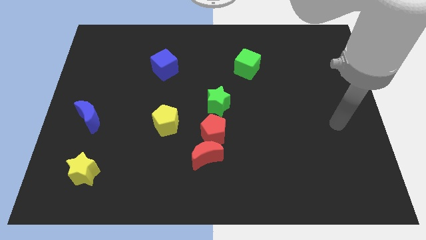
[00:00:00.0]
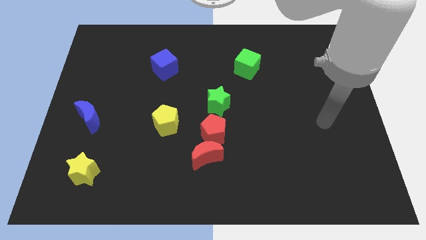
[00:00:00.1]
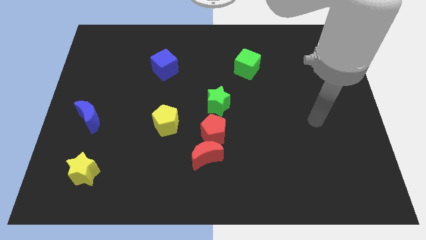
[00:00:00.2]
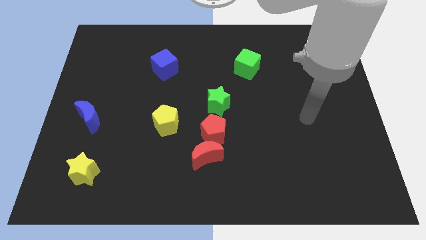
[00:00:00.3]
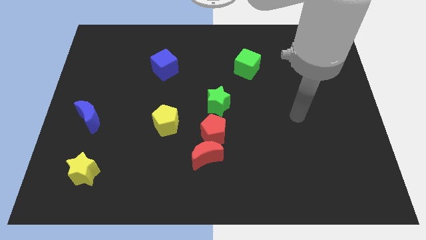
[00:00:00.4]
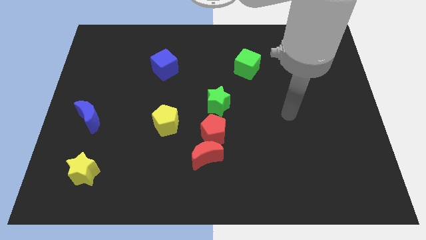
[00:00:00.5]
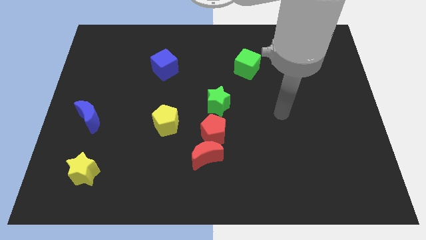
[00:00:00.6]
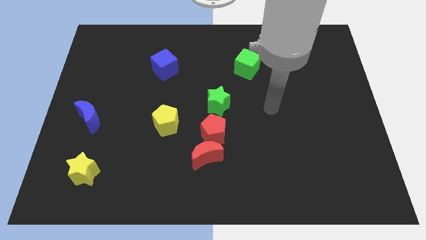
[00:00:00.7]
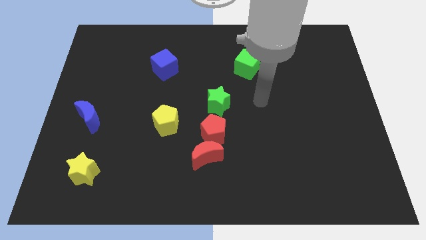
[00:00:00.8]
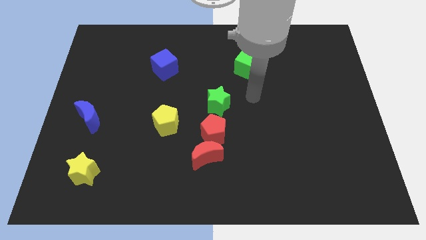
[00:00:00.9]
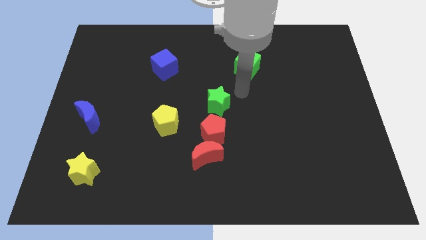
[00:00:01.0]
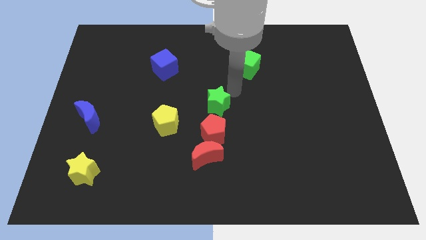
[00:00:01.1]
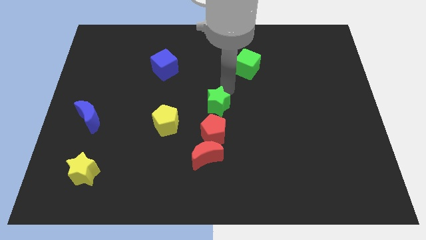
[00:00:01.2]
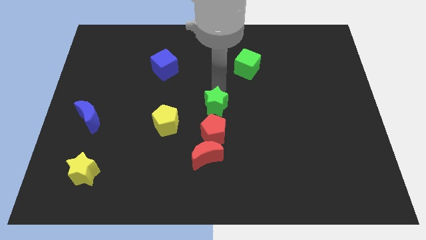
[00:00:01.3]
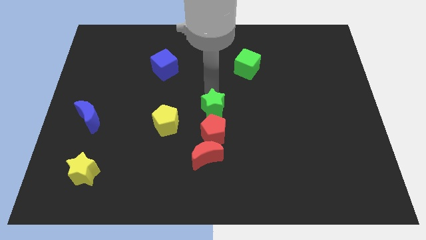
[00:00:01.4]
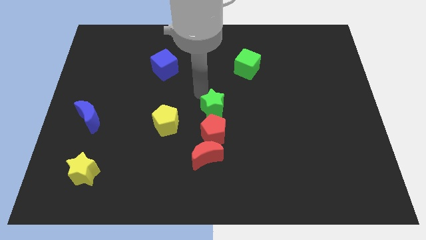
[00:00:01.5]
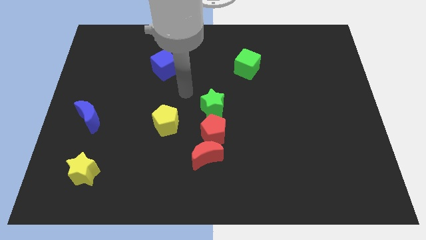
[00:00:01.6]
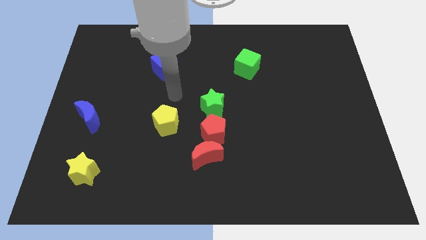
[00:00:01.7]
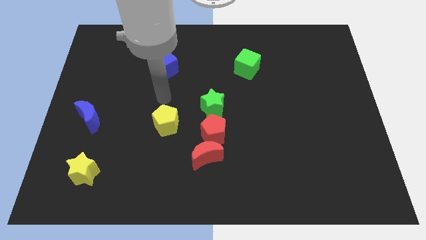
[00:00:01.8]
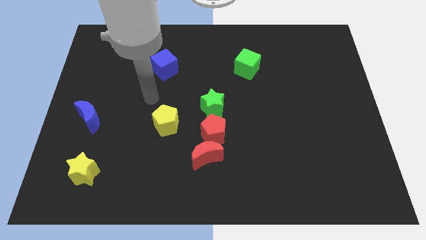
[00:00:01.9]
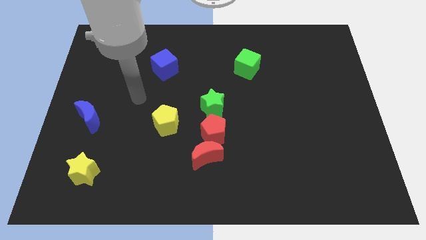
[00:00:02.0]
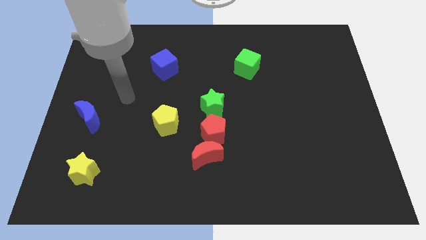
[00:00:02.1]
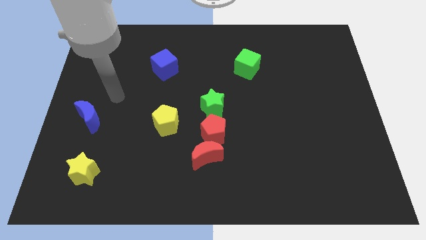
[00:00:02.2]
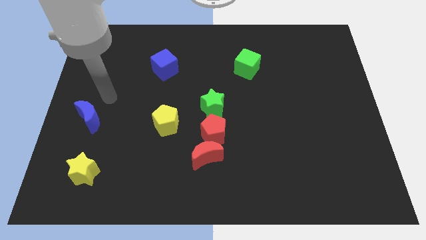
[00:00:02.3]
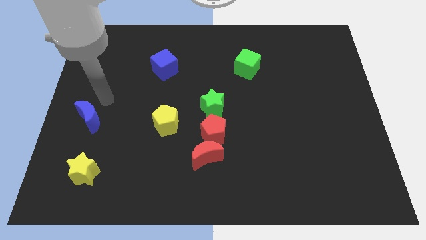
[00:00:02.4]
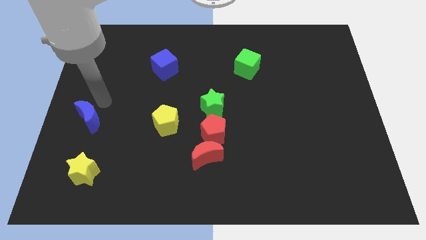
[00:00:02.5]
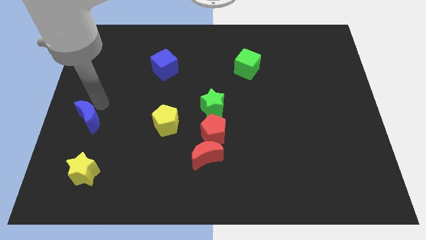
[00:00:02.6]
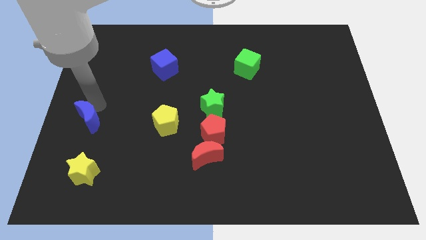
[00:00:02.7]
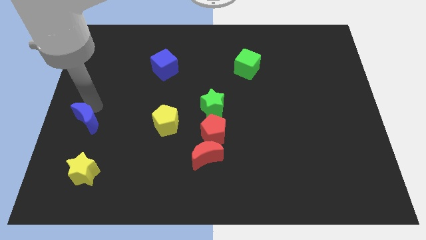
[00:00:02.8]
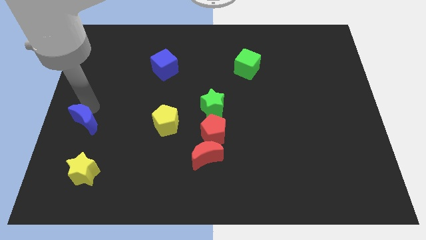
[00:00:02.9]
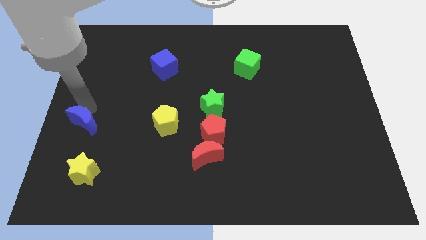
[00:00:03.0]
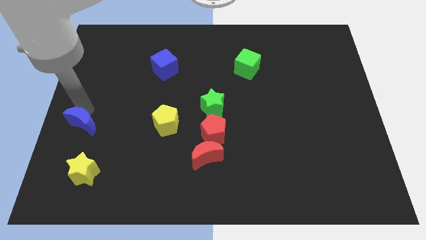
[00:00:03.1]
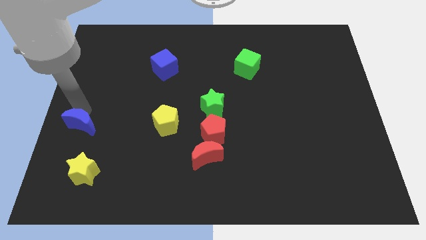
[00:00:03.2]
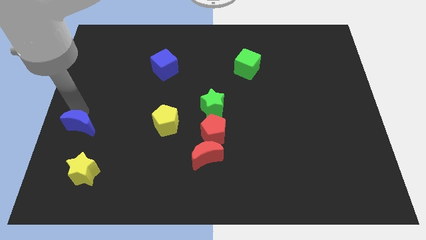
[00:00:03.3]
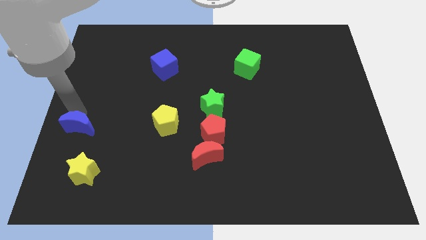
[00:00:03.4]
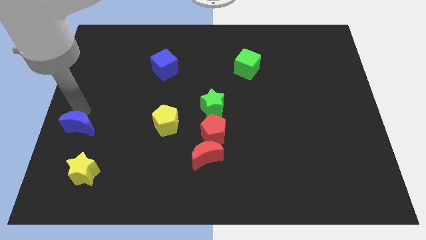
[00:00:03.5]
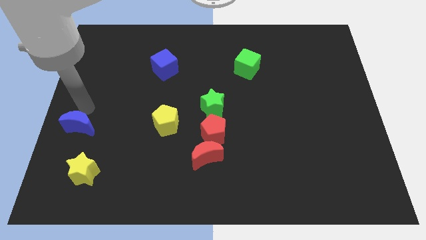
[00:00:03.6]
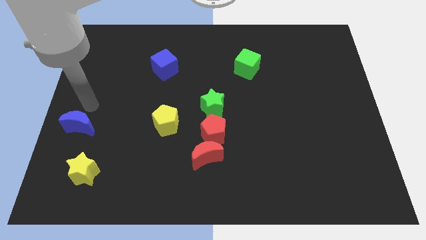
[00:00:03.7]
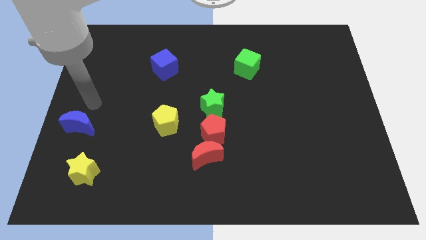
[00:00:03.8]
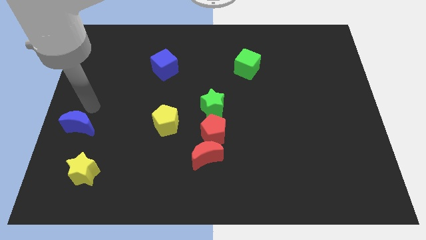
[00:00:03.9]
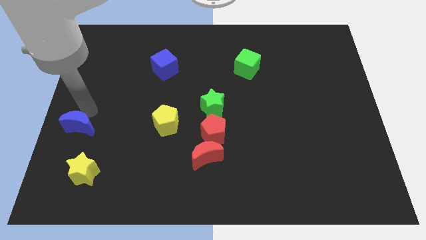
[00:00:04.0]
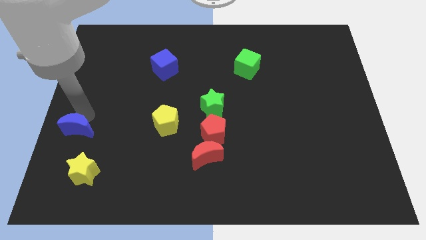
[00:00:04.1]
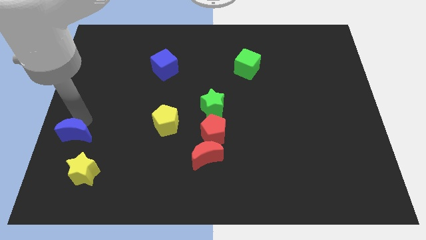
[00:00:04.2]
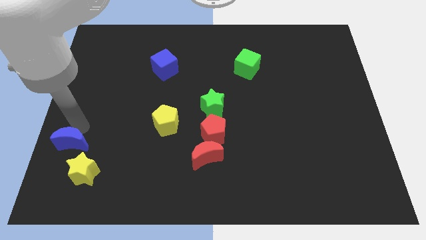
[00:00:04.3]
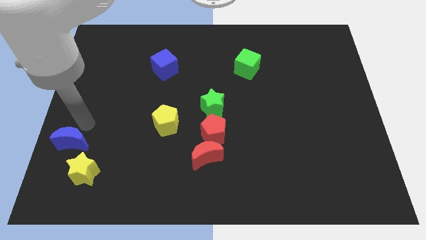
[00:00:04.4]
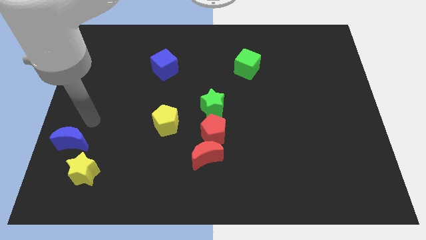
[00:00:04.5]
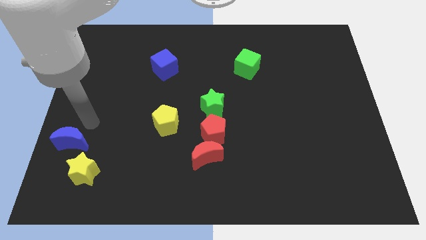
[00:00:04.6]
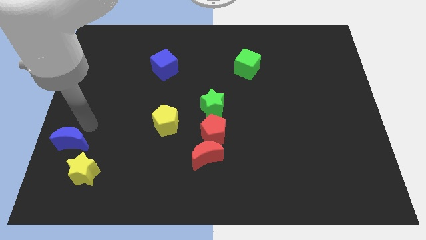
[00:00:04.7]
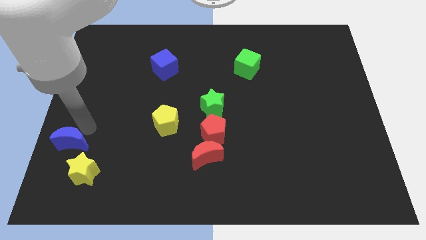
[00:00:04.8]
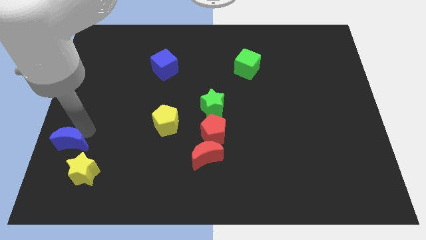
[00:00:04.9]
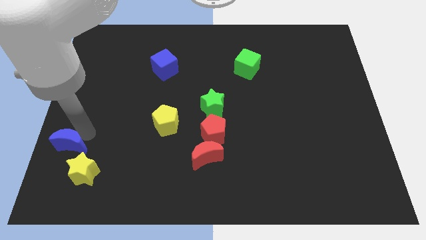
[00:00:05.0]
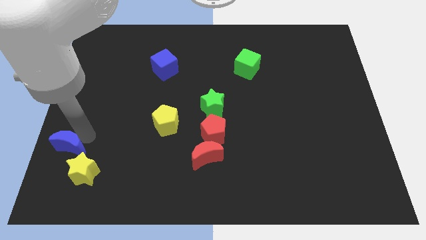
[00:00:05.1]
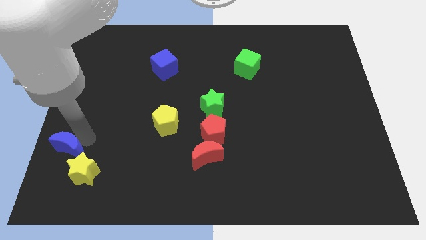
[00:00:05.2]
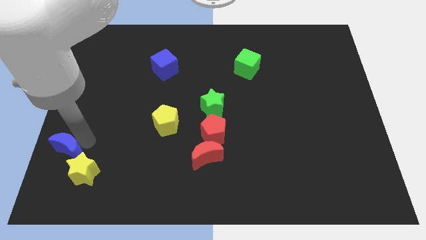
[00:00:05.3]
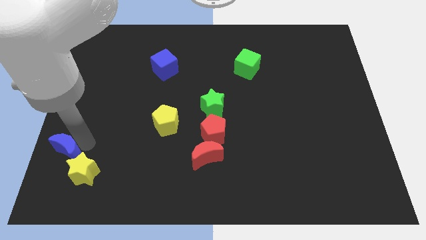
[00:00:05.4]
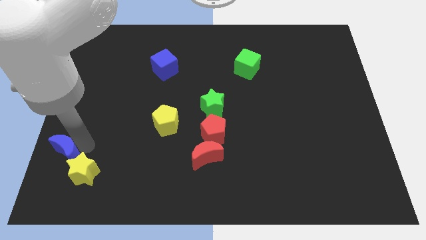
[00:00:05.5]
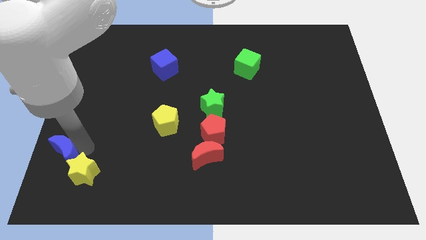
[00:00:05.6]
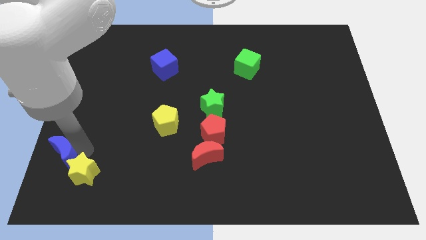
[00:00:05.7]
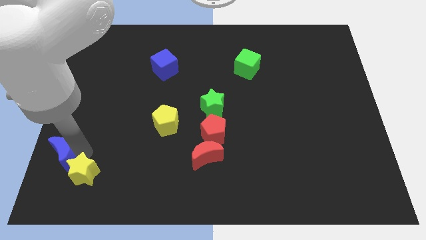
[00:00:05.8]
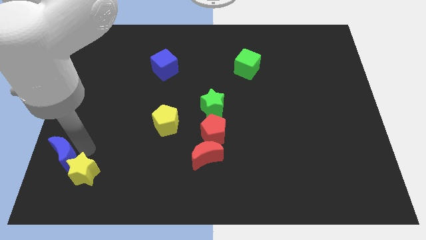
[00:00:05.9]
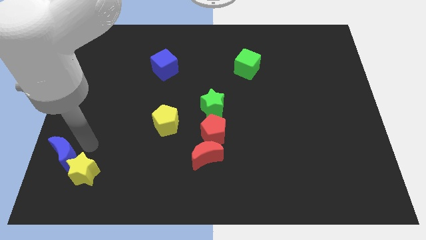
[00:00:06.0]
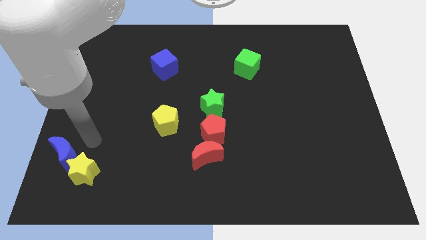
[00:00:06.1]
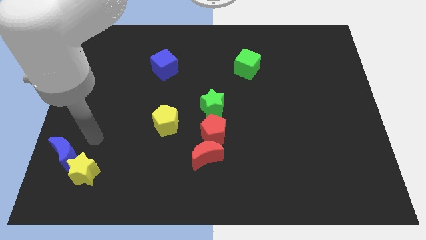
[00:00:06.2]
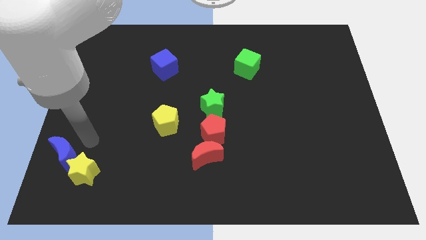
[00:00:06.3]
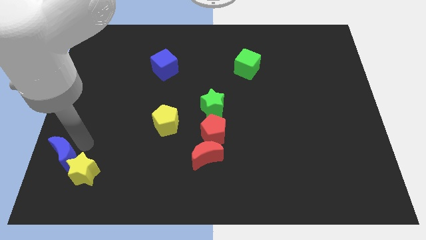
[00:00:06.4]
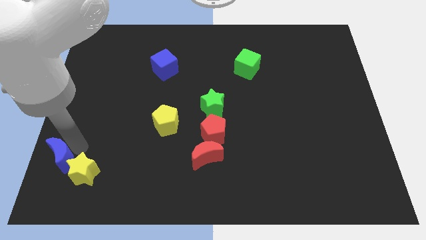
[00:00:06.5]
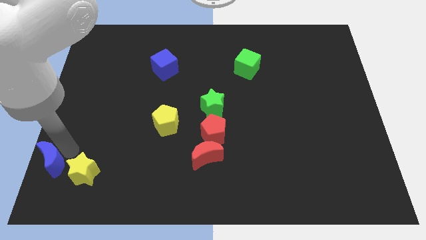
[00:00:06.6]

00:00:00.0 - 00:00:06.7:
put the blue moon to the bottom left
